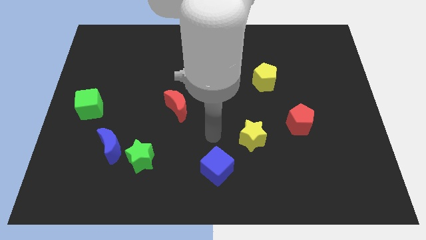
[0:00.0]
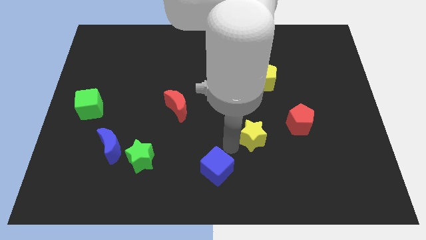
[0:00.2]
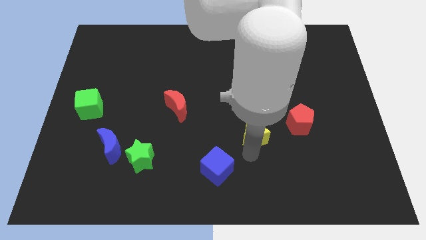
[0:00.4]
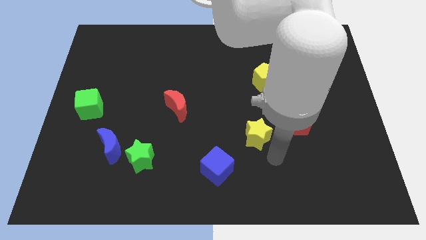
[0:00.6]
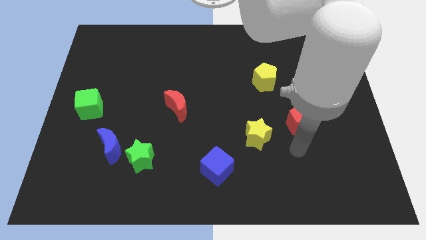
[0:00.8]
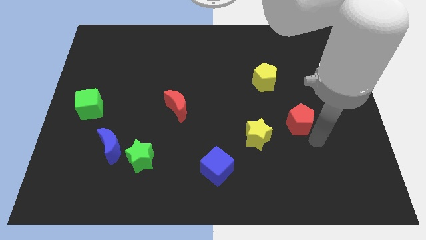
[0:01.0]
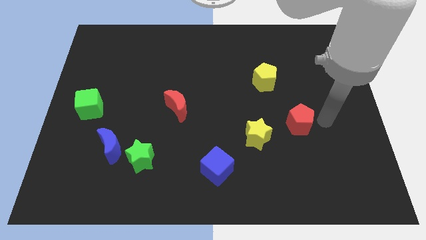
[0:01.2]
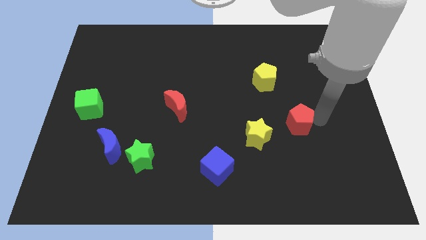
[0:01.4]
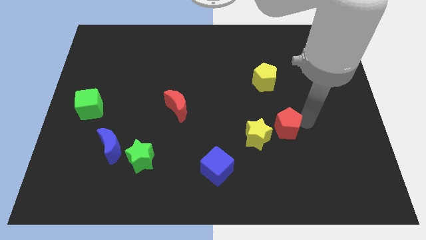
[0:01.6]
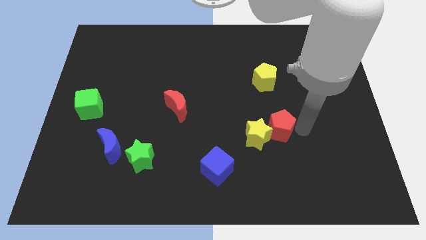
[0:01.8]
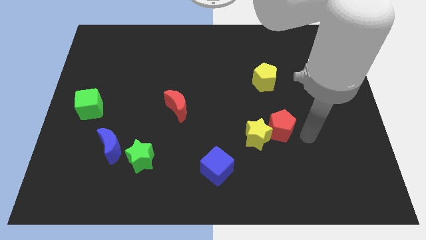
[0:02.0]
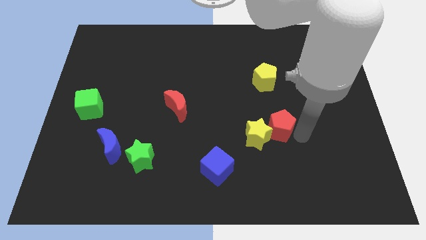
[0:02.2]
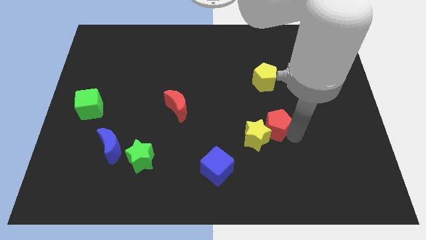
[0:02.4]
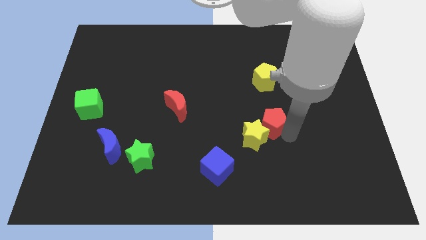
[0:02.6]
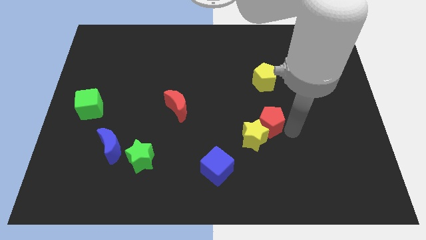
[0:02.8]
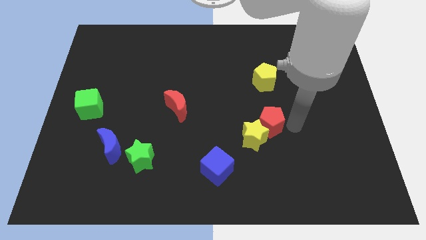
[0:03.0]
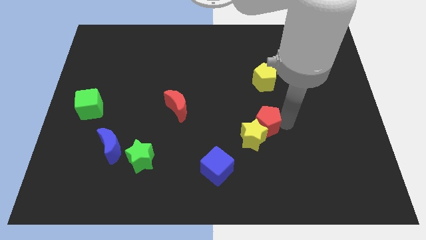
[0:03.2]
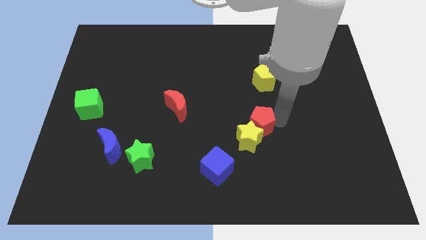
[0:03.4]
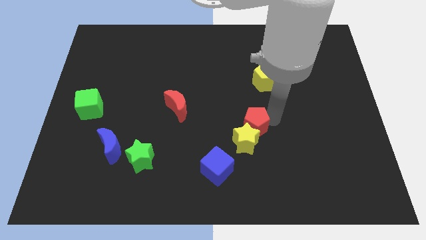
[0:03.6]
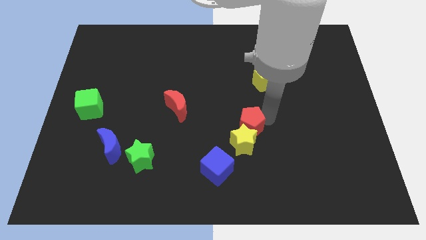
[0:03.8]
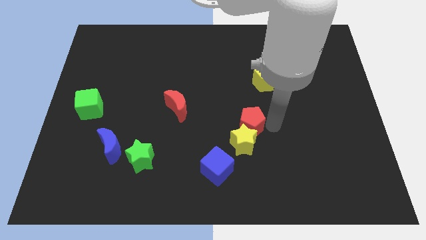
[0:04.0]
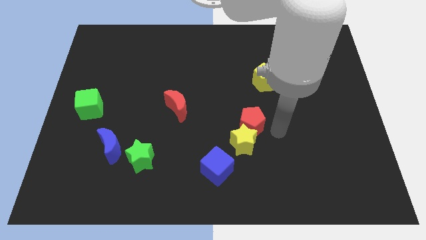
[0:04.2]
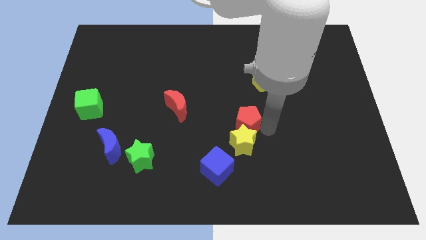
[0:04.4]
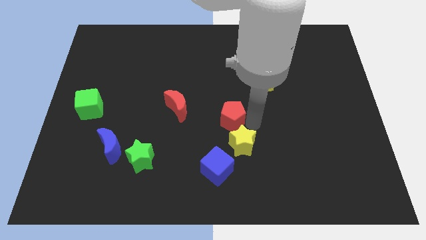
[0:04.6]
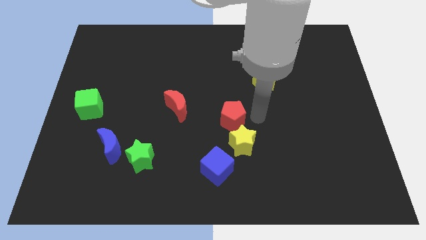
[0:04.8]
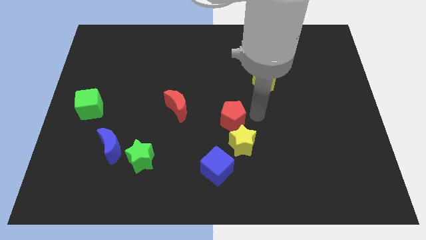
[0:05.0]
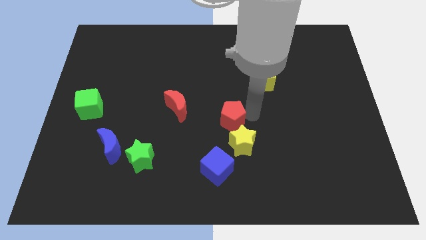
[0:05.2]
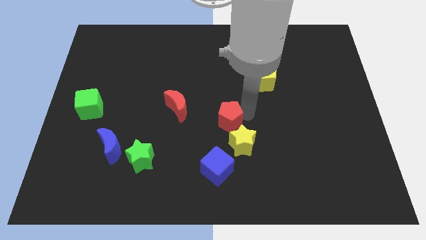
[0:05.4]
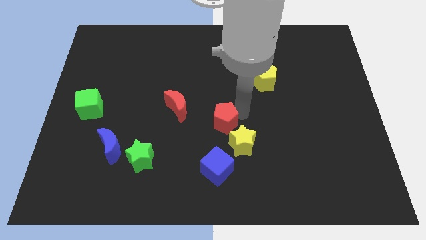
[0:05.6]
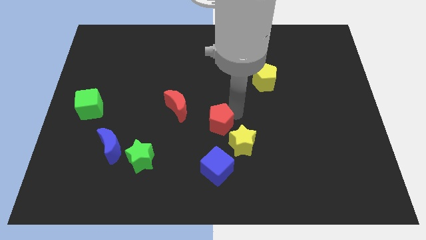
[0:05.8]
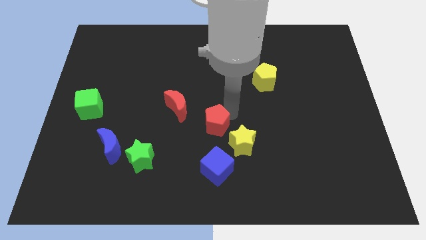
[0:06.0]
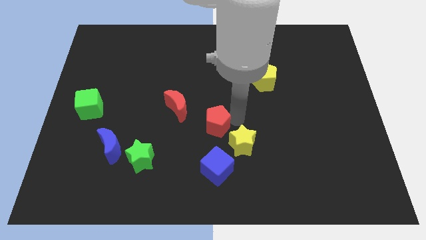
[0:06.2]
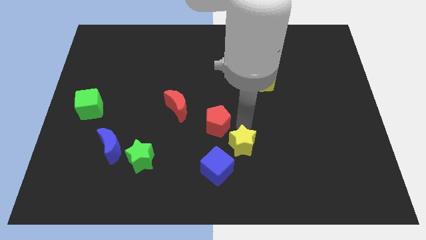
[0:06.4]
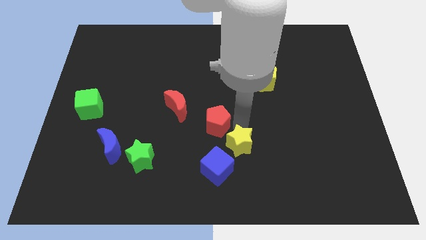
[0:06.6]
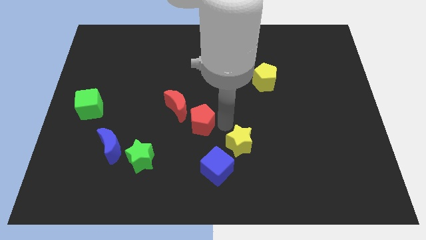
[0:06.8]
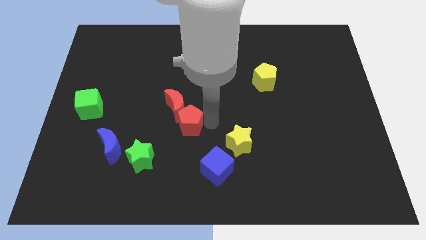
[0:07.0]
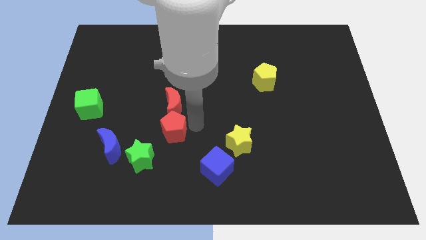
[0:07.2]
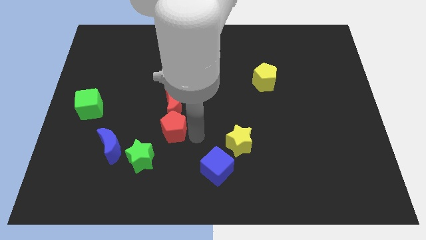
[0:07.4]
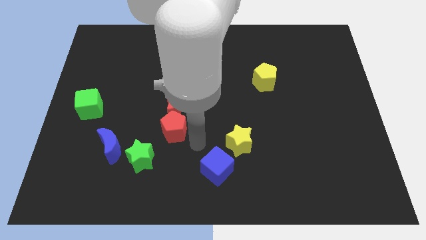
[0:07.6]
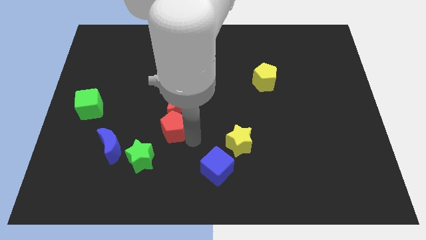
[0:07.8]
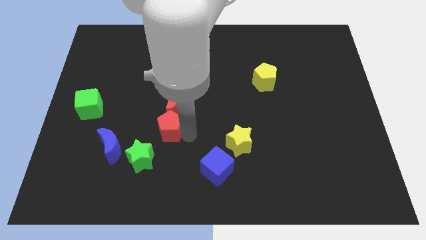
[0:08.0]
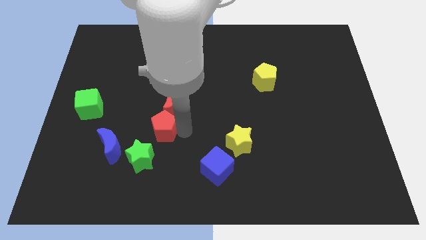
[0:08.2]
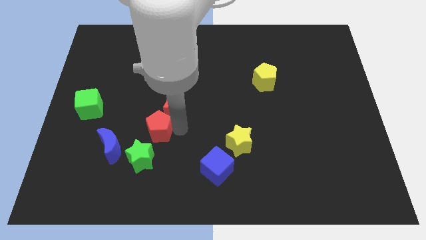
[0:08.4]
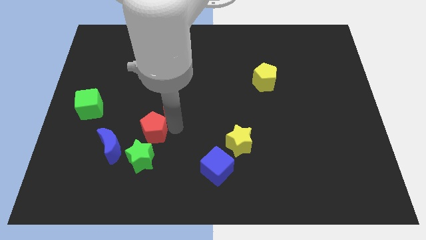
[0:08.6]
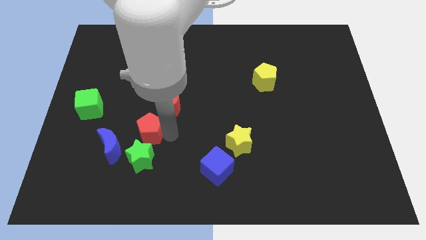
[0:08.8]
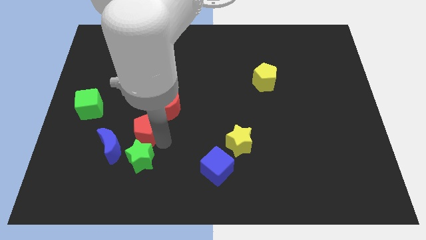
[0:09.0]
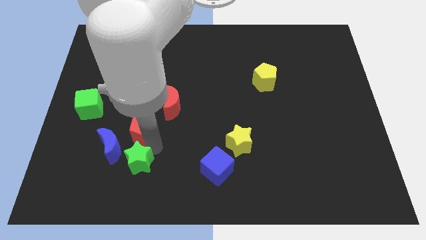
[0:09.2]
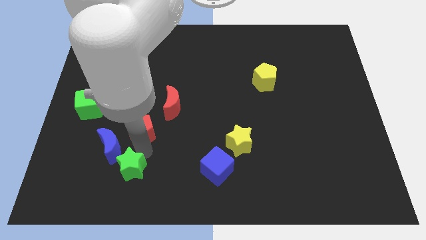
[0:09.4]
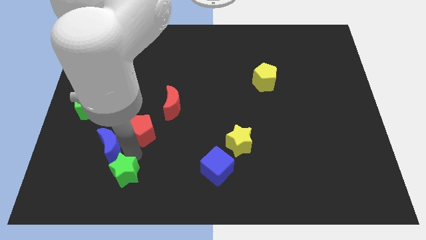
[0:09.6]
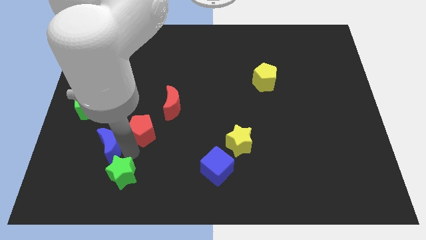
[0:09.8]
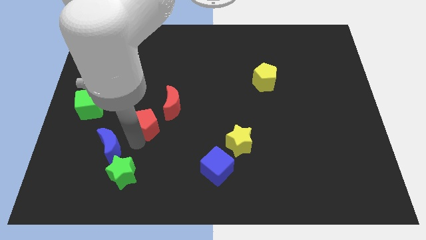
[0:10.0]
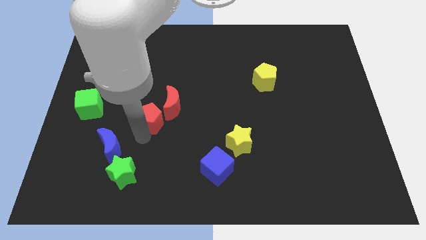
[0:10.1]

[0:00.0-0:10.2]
slide the red pentagon just left of the red moon

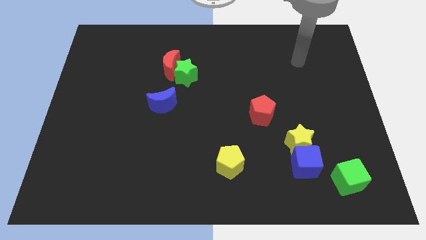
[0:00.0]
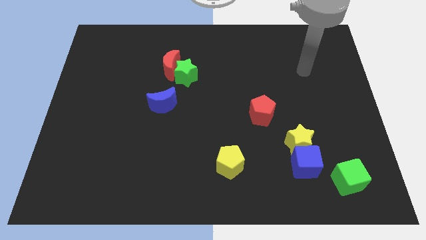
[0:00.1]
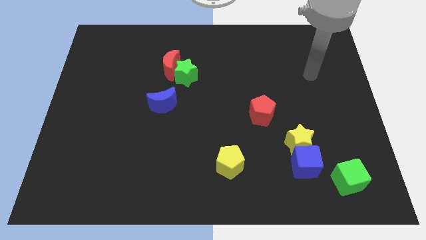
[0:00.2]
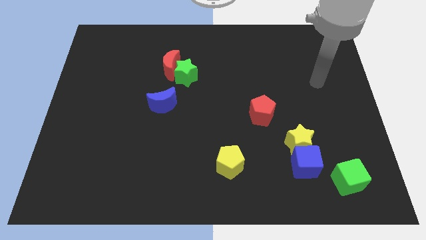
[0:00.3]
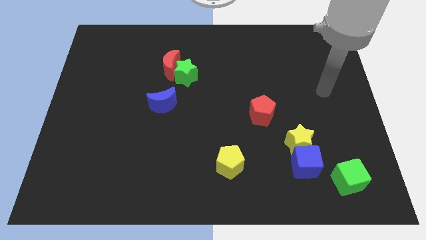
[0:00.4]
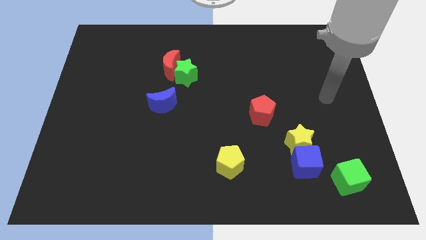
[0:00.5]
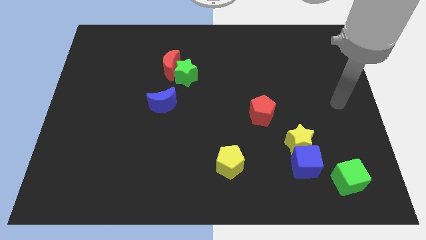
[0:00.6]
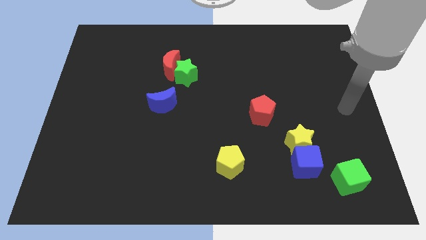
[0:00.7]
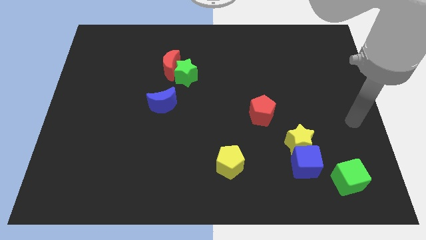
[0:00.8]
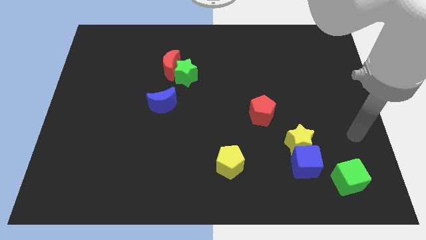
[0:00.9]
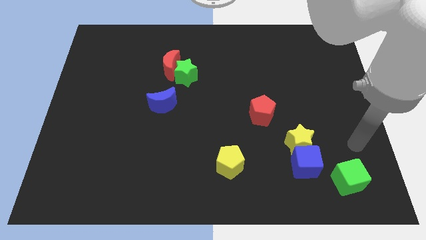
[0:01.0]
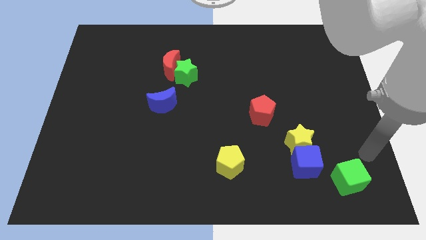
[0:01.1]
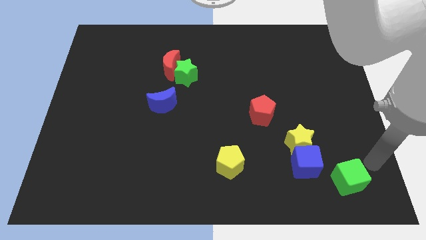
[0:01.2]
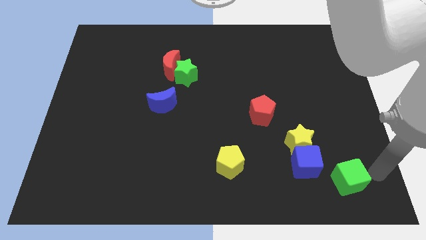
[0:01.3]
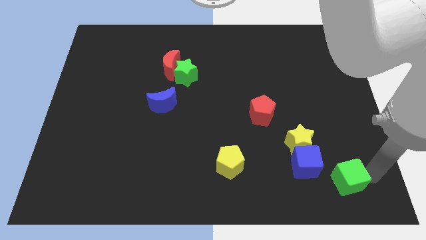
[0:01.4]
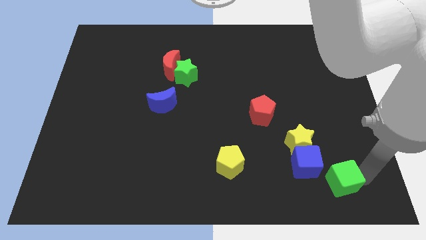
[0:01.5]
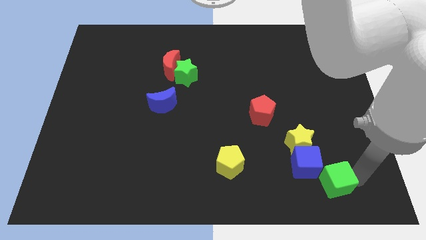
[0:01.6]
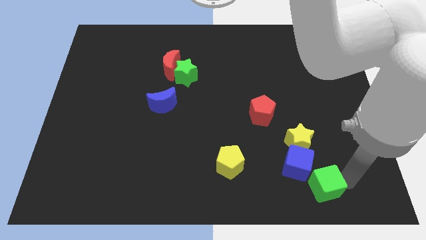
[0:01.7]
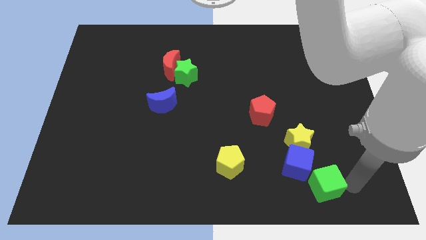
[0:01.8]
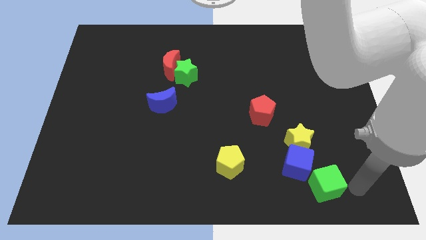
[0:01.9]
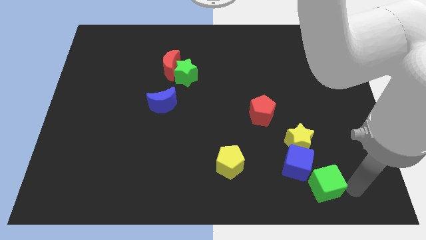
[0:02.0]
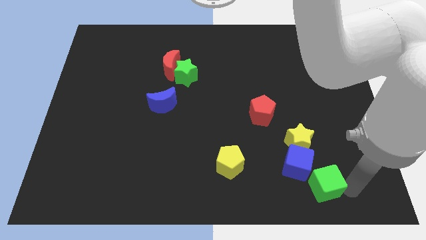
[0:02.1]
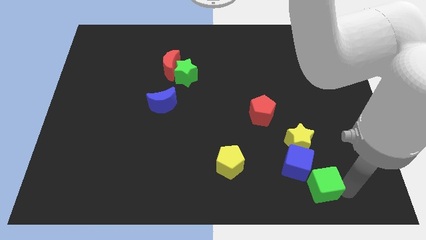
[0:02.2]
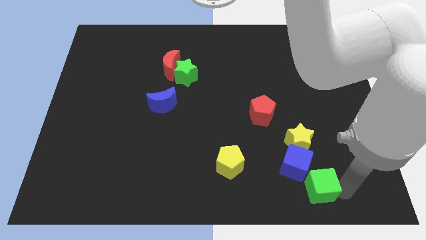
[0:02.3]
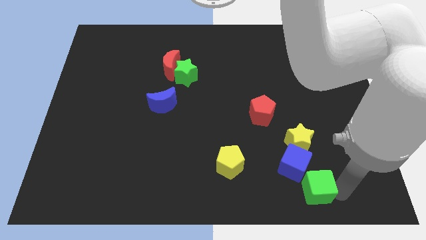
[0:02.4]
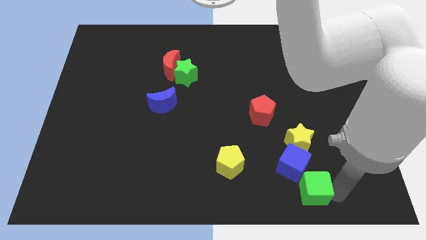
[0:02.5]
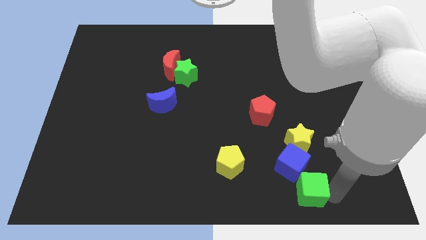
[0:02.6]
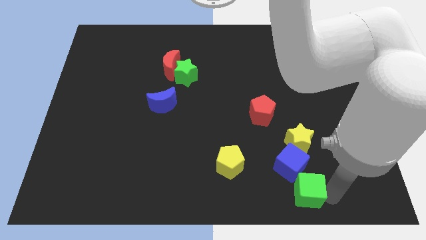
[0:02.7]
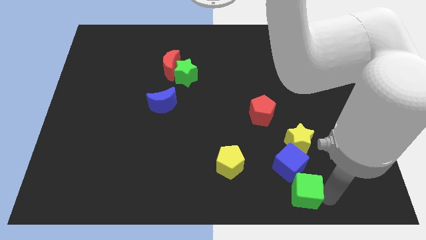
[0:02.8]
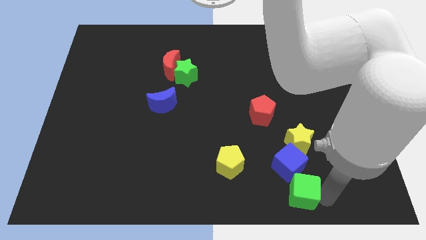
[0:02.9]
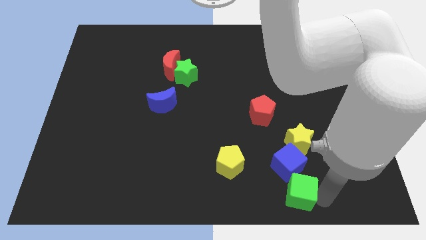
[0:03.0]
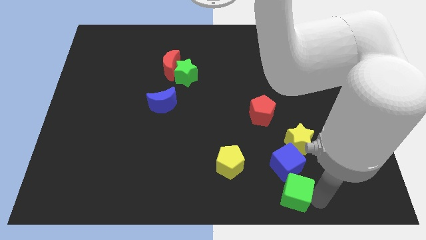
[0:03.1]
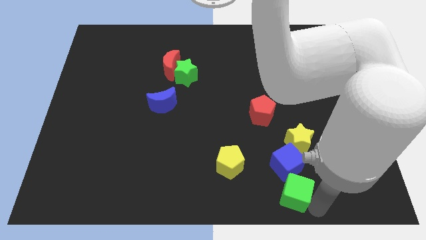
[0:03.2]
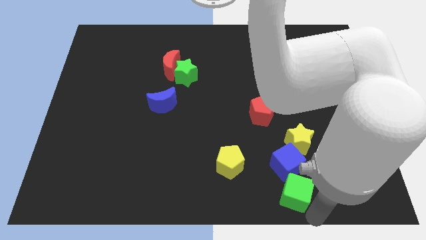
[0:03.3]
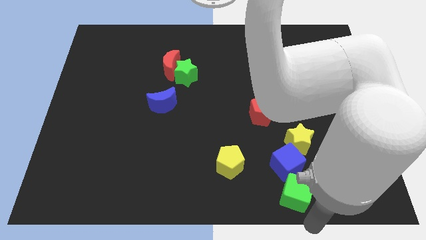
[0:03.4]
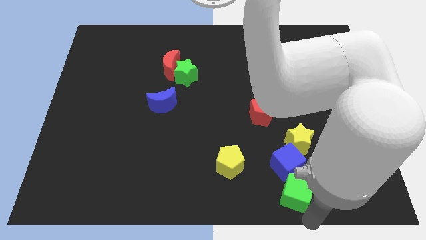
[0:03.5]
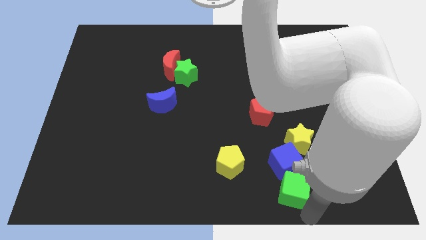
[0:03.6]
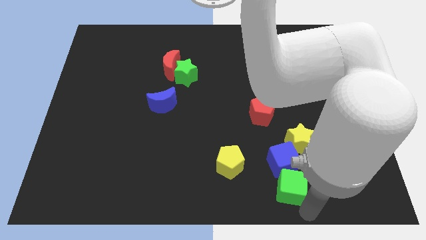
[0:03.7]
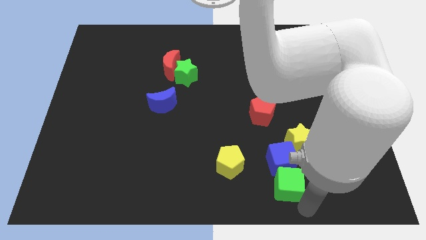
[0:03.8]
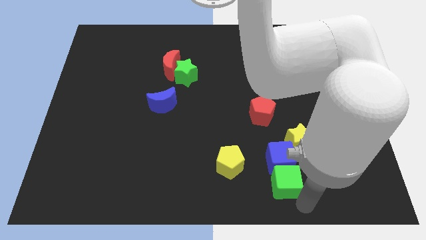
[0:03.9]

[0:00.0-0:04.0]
move the green cube diagonally down and to the left of the yellow star
